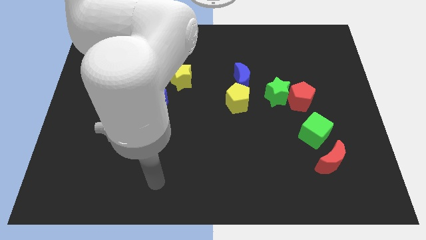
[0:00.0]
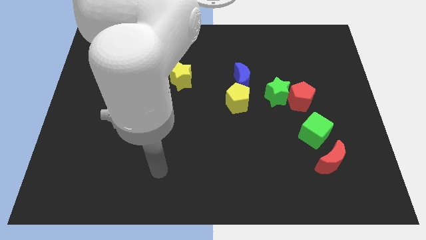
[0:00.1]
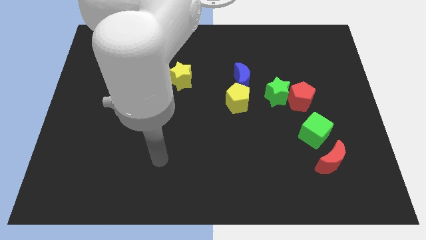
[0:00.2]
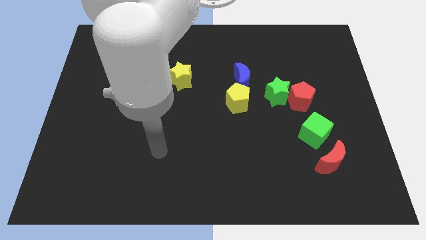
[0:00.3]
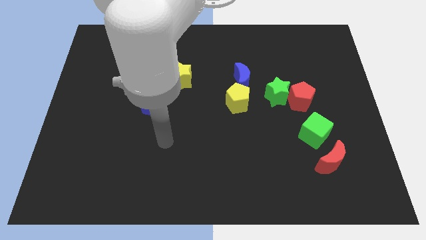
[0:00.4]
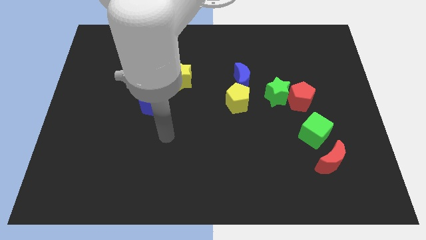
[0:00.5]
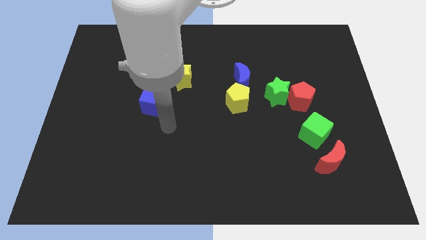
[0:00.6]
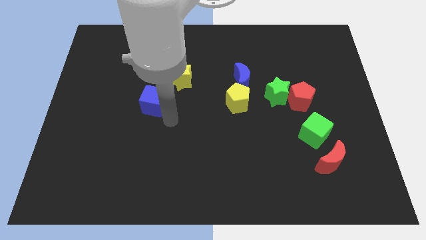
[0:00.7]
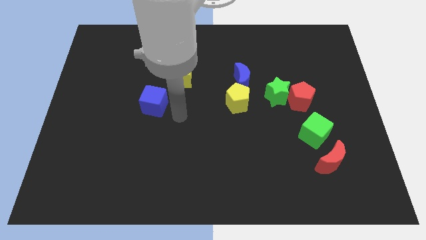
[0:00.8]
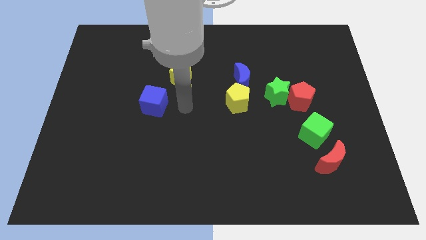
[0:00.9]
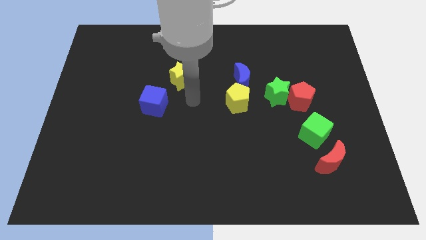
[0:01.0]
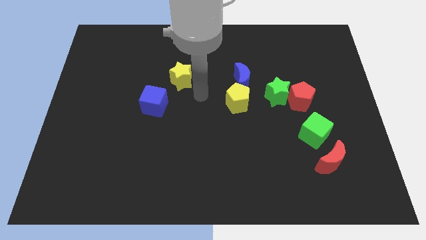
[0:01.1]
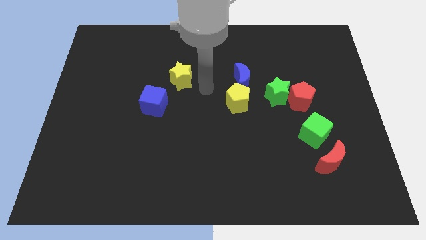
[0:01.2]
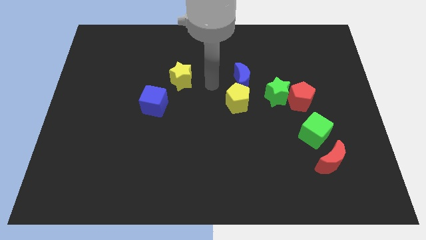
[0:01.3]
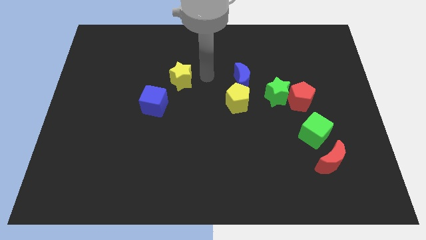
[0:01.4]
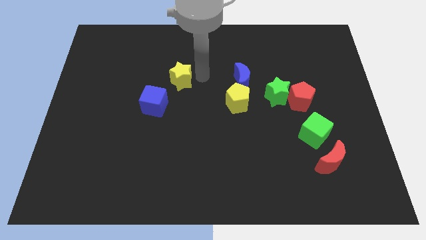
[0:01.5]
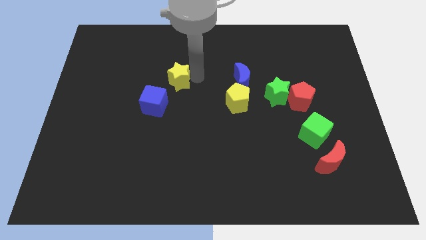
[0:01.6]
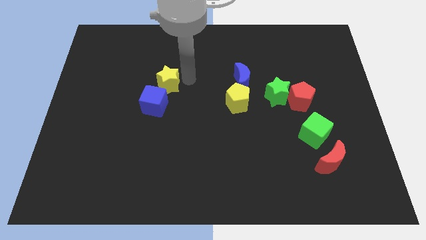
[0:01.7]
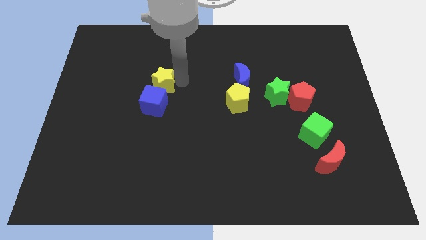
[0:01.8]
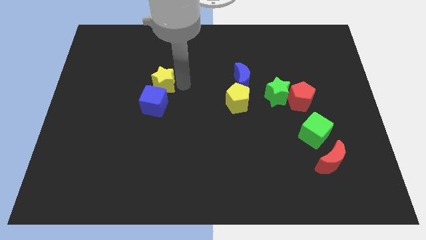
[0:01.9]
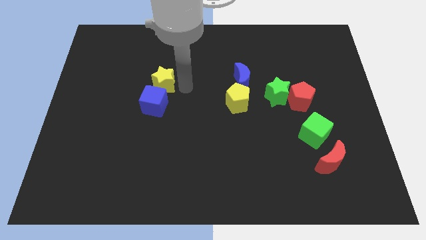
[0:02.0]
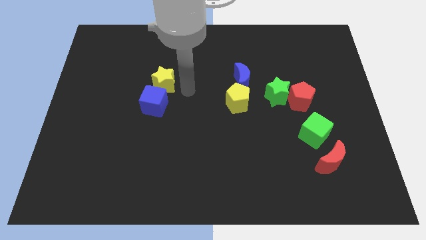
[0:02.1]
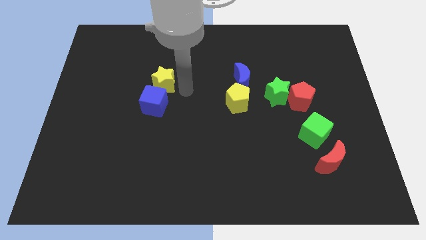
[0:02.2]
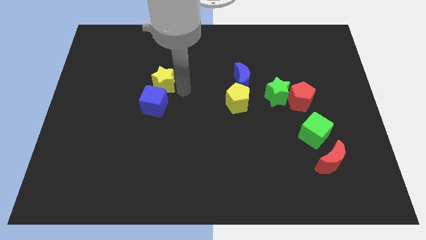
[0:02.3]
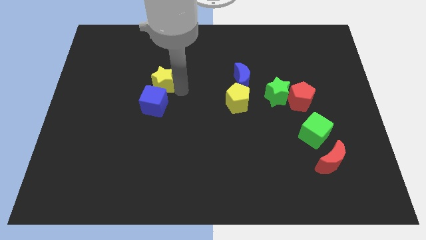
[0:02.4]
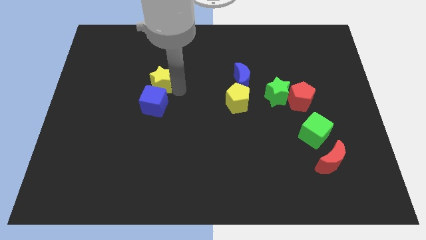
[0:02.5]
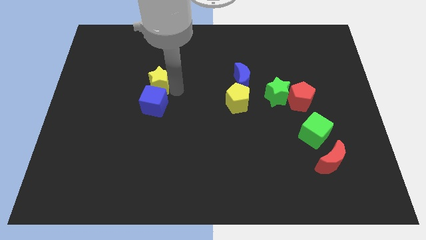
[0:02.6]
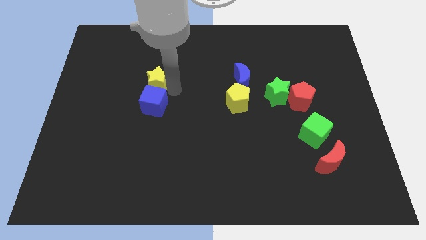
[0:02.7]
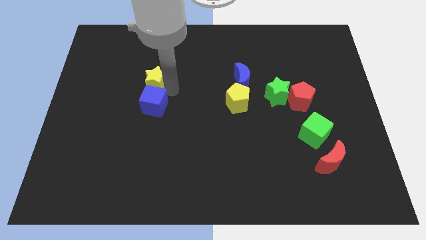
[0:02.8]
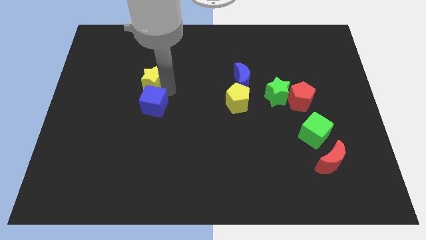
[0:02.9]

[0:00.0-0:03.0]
slightly slide the yellow star left

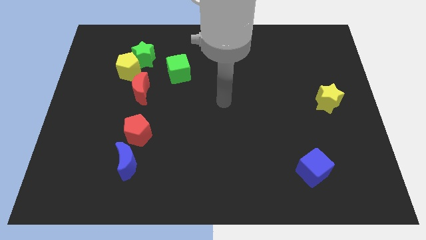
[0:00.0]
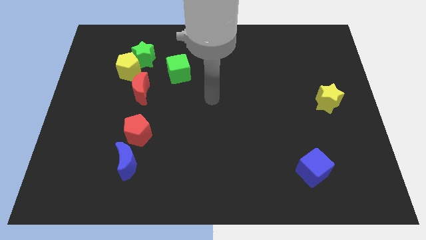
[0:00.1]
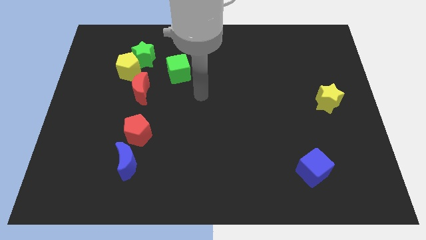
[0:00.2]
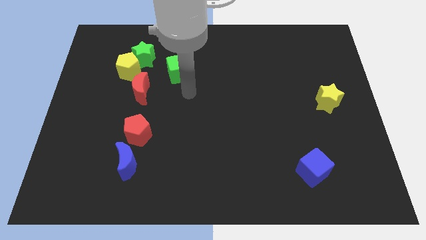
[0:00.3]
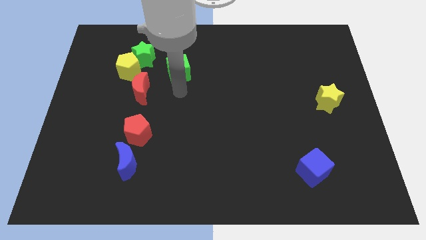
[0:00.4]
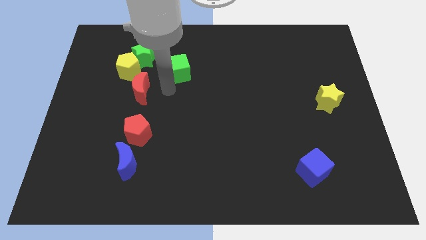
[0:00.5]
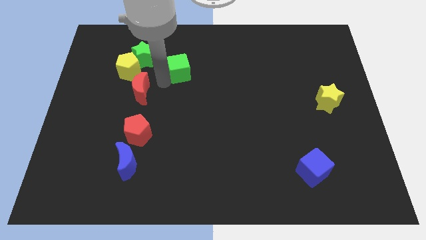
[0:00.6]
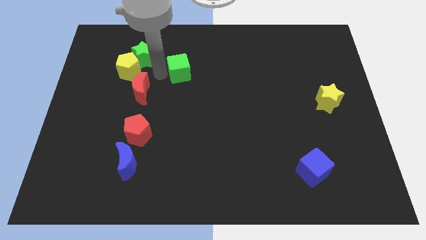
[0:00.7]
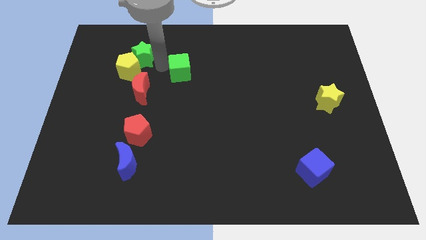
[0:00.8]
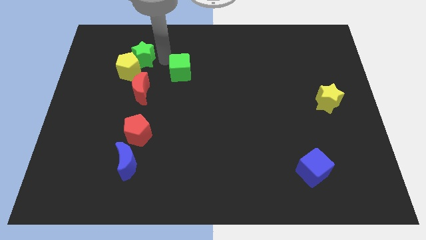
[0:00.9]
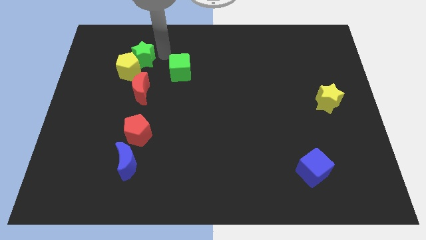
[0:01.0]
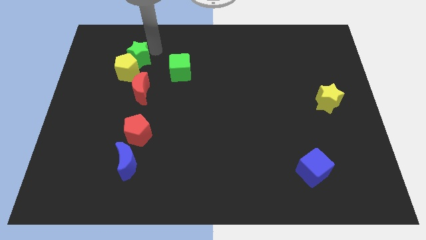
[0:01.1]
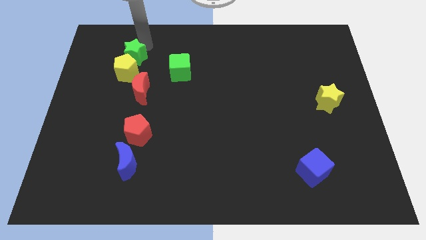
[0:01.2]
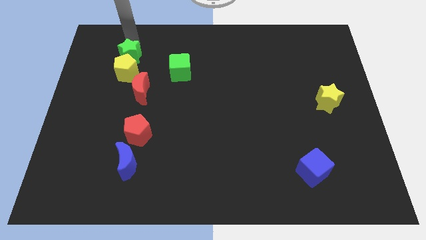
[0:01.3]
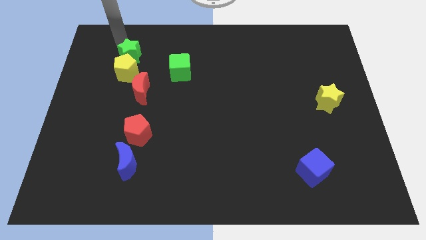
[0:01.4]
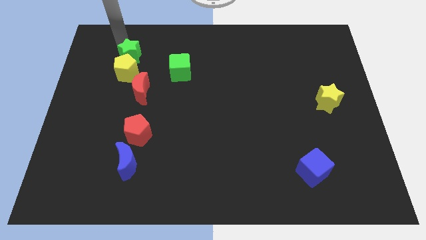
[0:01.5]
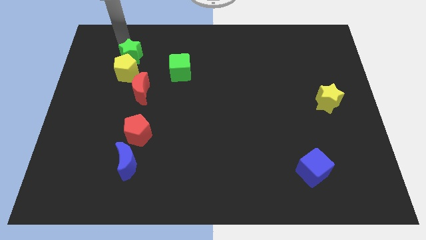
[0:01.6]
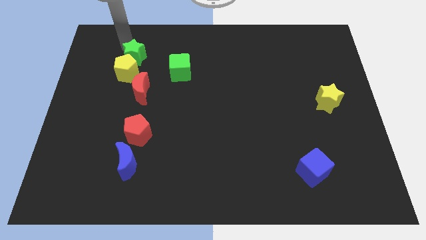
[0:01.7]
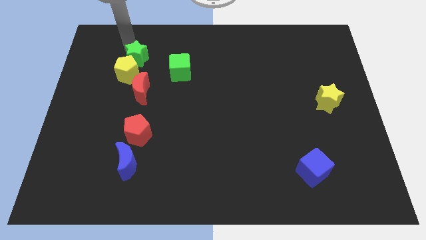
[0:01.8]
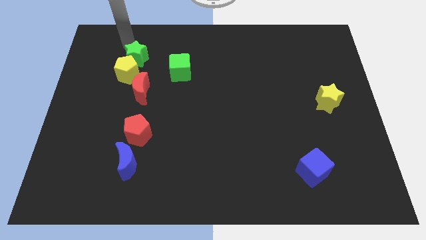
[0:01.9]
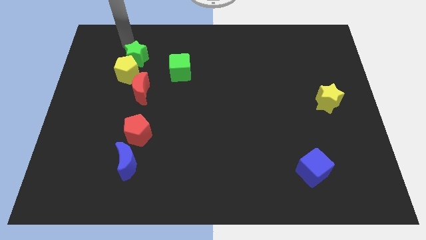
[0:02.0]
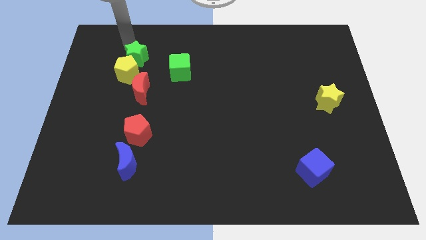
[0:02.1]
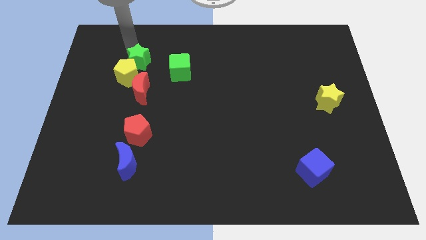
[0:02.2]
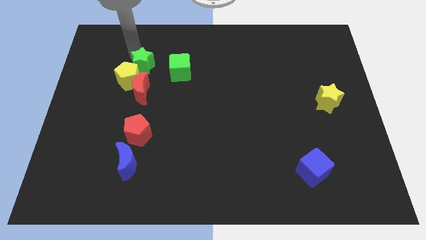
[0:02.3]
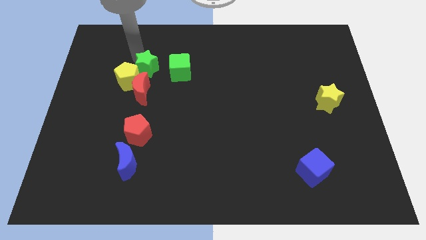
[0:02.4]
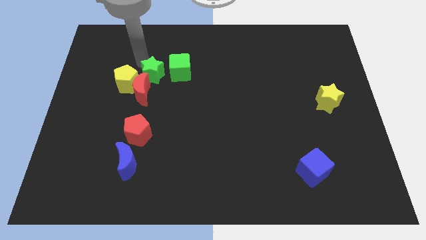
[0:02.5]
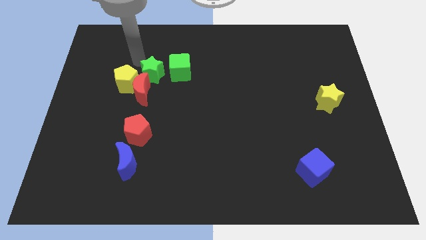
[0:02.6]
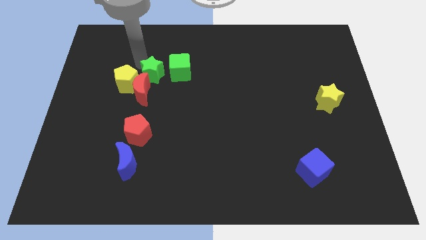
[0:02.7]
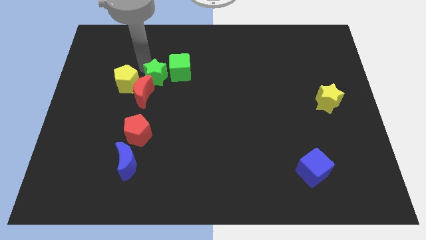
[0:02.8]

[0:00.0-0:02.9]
push the green star downwards and right slightly

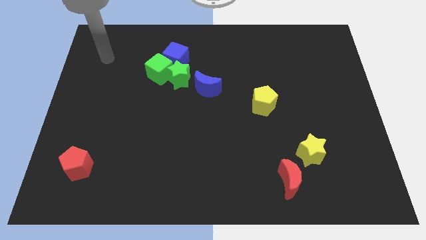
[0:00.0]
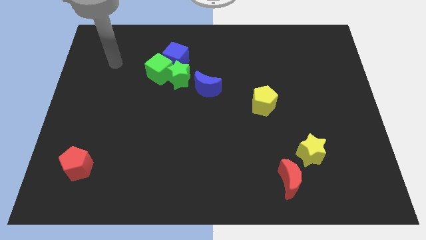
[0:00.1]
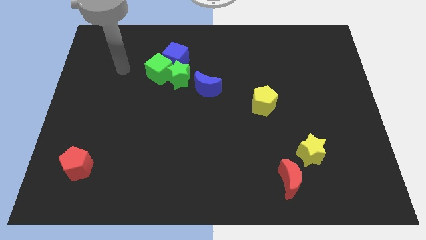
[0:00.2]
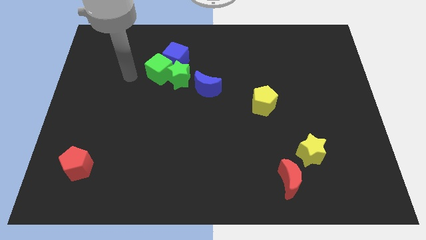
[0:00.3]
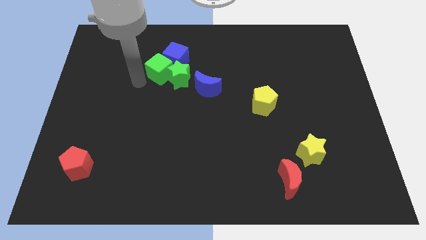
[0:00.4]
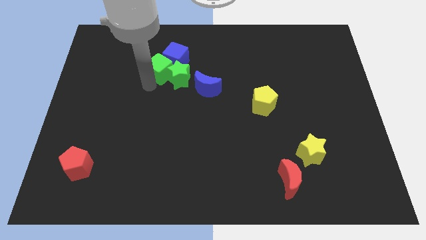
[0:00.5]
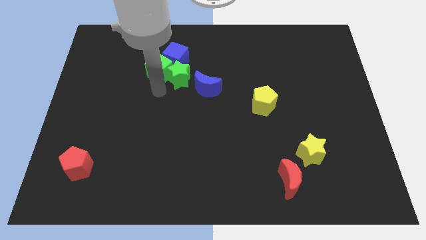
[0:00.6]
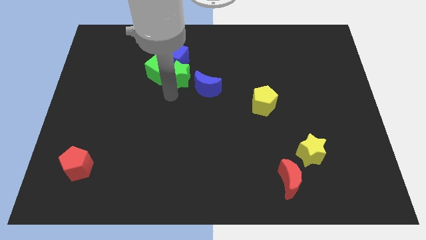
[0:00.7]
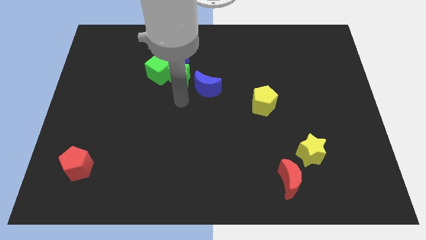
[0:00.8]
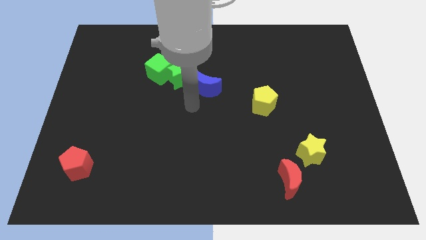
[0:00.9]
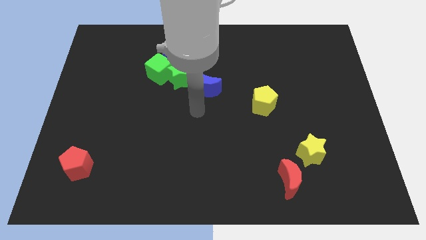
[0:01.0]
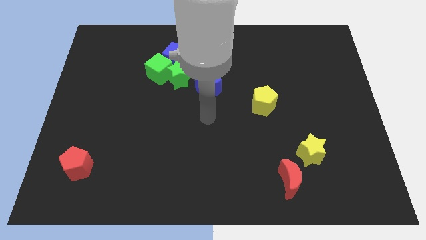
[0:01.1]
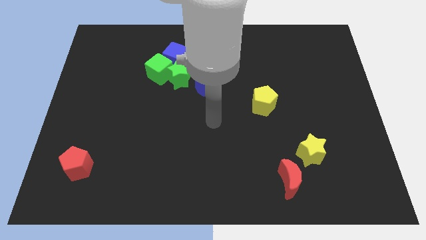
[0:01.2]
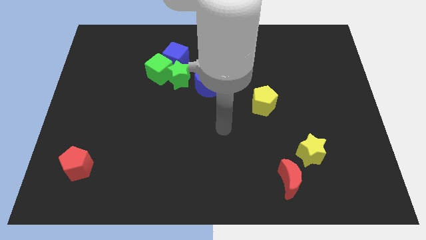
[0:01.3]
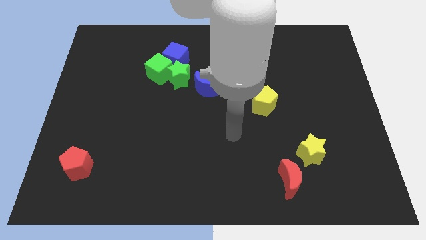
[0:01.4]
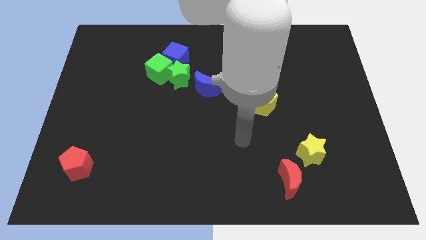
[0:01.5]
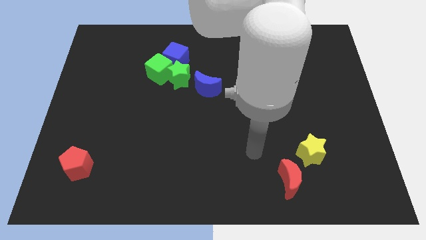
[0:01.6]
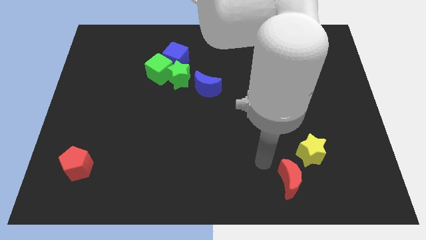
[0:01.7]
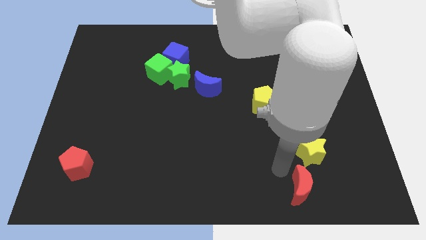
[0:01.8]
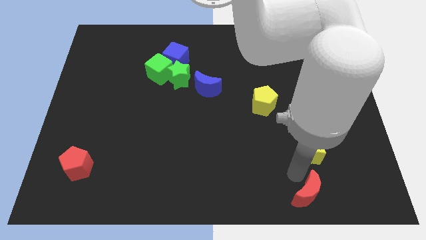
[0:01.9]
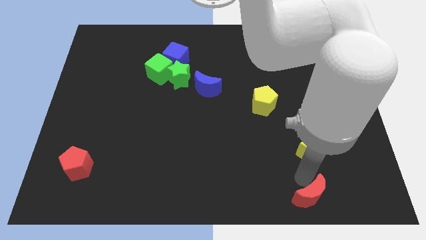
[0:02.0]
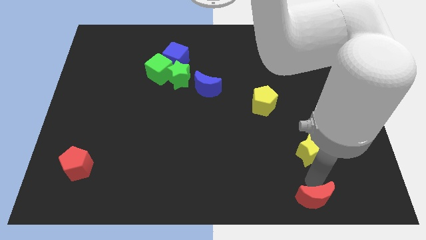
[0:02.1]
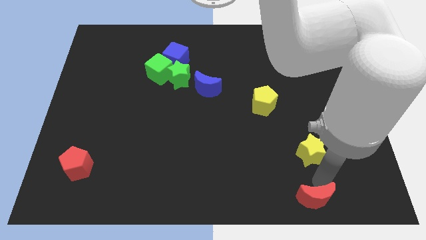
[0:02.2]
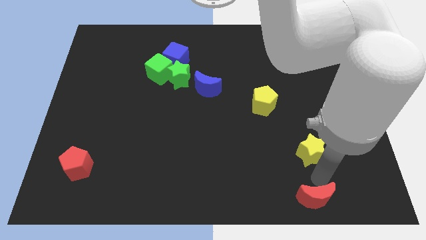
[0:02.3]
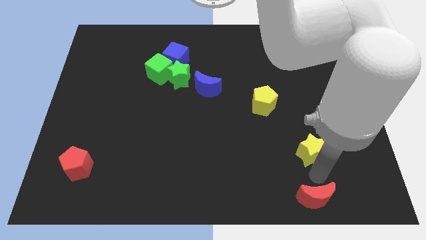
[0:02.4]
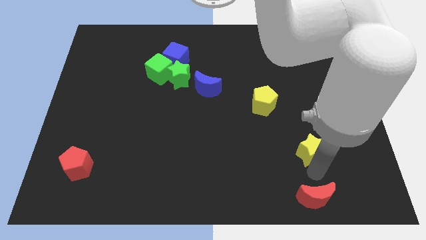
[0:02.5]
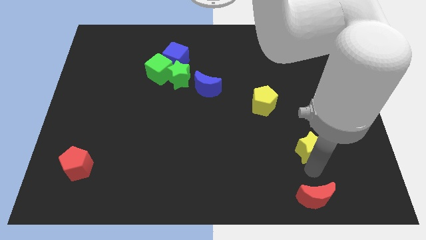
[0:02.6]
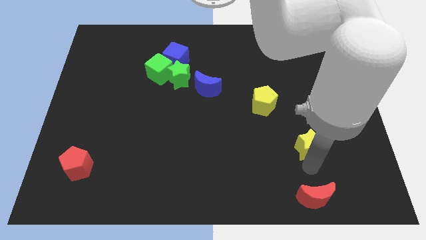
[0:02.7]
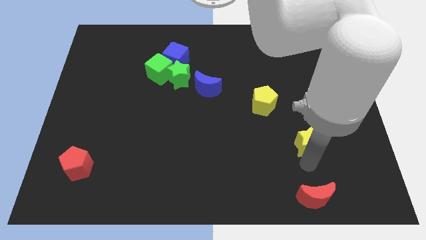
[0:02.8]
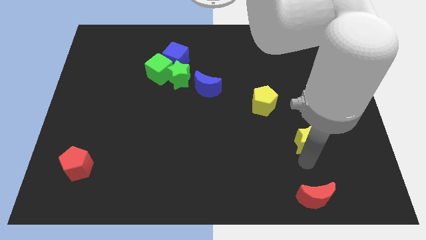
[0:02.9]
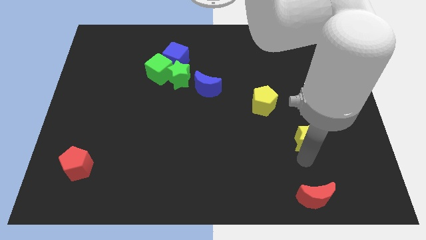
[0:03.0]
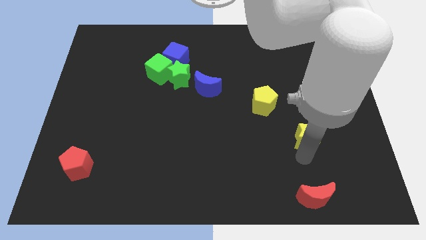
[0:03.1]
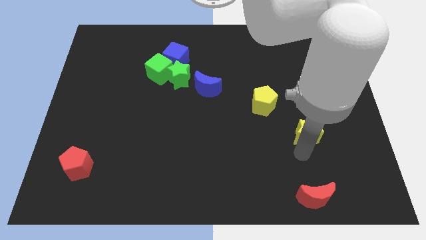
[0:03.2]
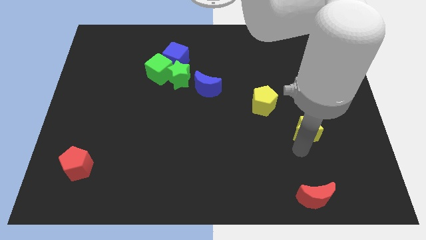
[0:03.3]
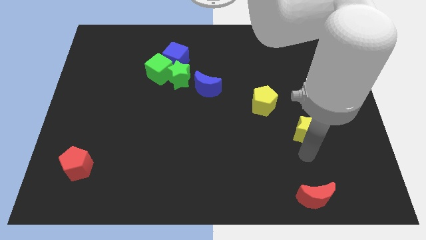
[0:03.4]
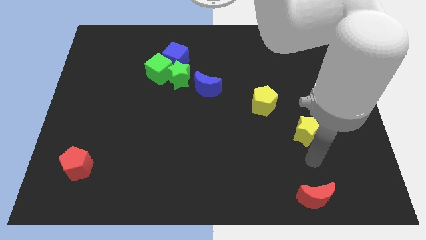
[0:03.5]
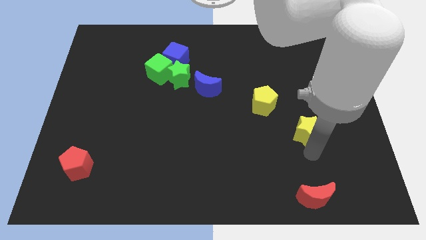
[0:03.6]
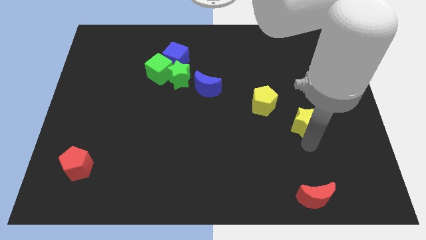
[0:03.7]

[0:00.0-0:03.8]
slide the yellow star upwards a bit
